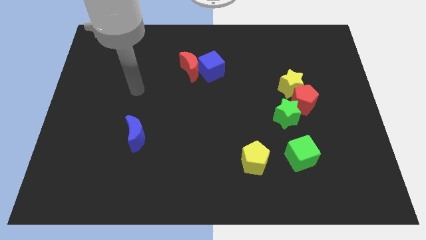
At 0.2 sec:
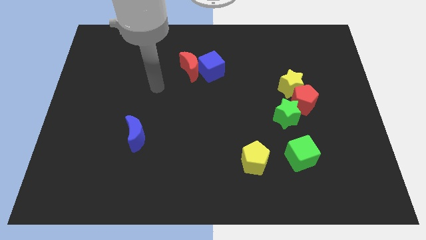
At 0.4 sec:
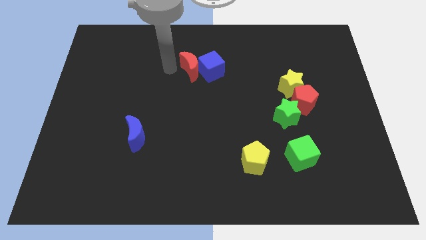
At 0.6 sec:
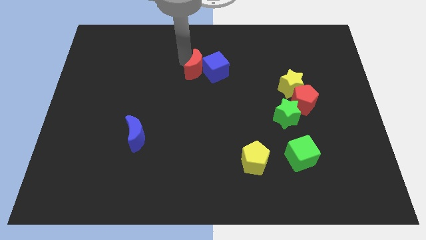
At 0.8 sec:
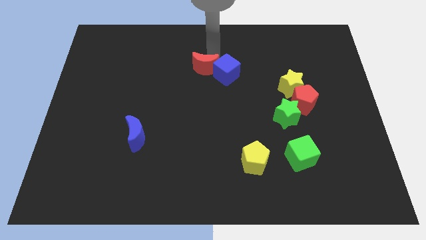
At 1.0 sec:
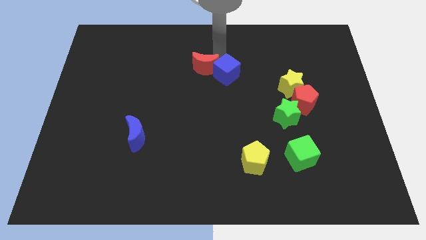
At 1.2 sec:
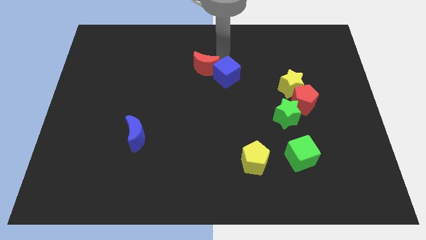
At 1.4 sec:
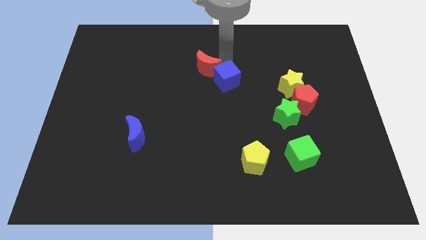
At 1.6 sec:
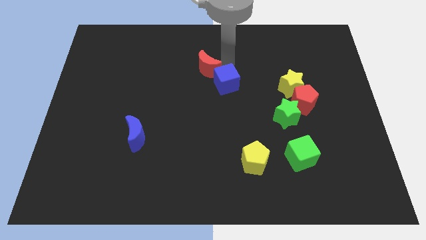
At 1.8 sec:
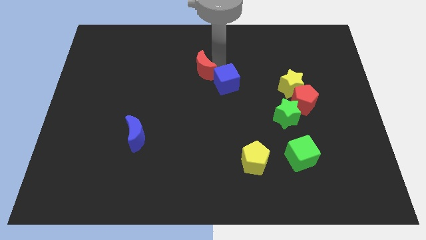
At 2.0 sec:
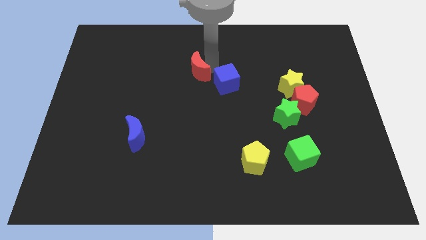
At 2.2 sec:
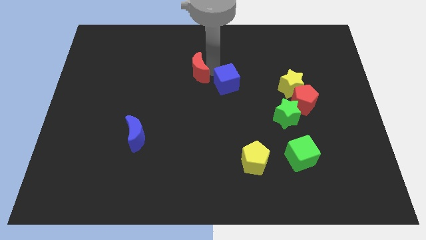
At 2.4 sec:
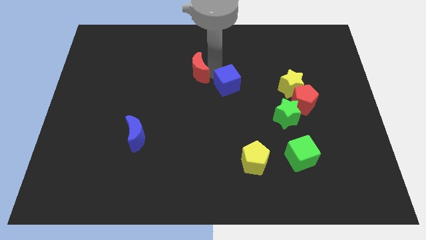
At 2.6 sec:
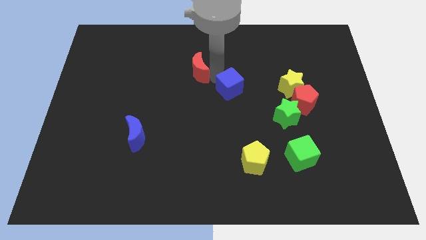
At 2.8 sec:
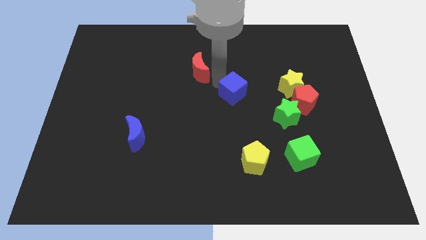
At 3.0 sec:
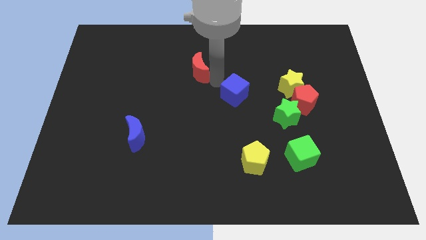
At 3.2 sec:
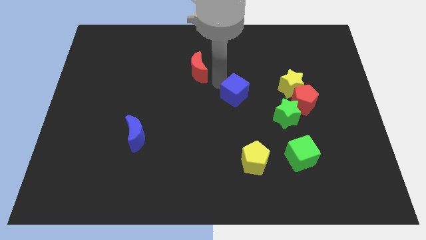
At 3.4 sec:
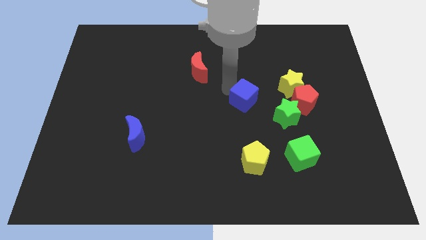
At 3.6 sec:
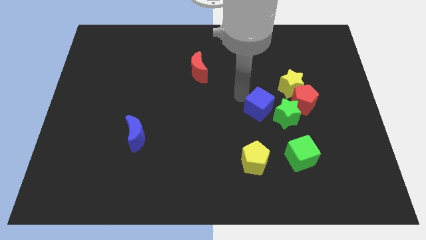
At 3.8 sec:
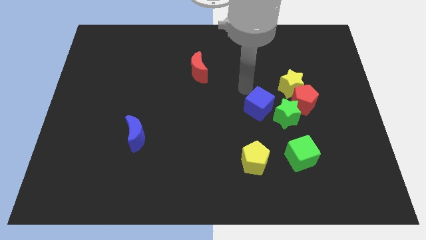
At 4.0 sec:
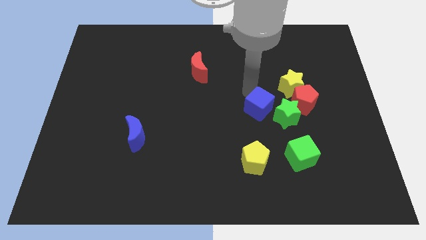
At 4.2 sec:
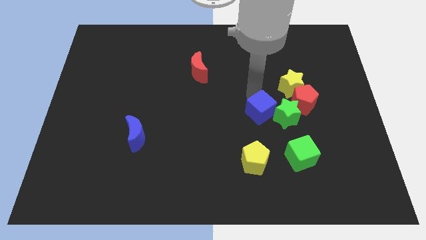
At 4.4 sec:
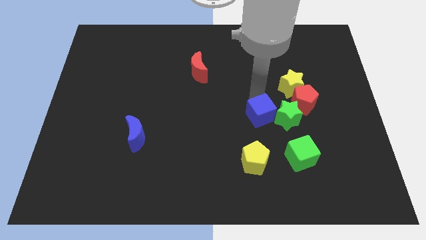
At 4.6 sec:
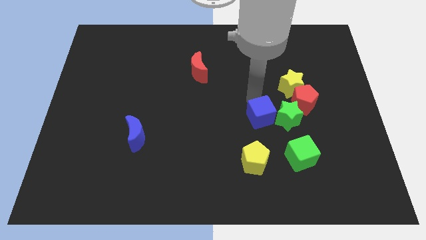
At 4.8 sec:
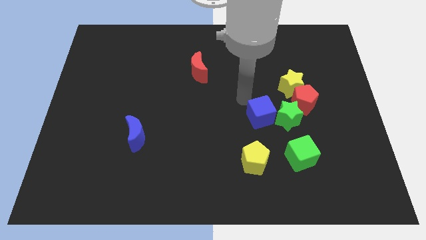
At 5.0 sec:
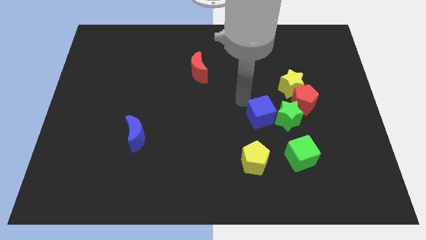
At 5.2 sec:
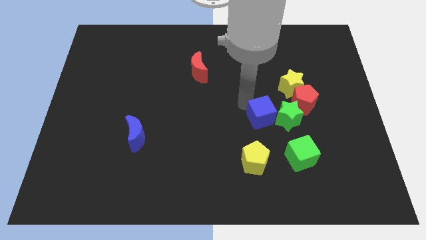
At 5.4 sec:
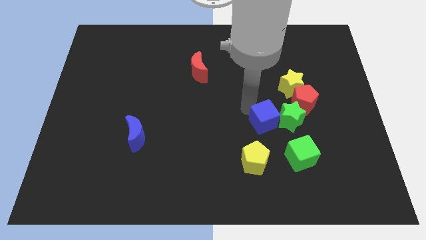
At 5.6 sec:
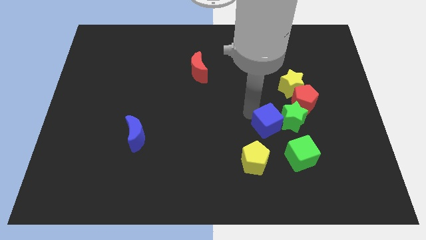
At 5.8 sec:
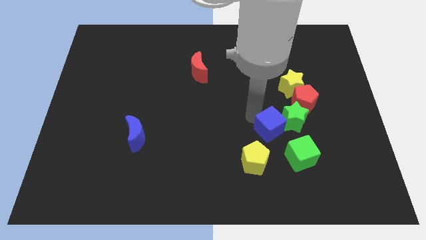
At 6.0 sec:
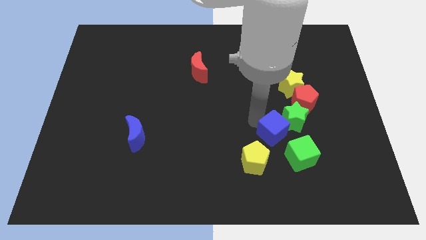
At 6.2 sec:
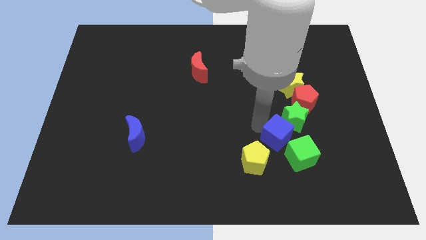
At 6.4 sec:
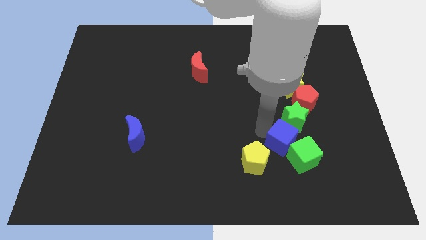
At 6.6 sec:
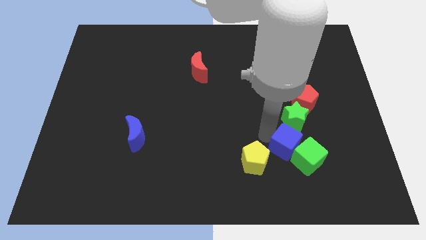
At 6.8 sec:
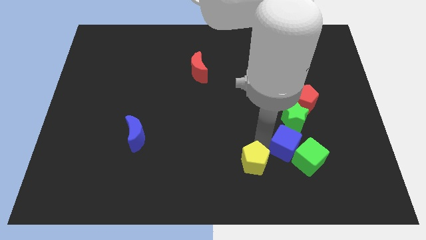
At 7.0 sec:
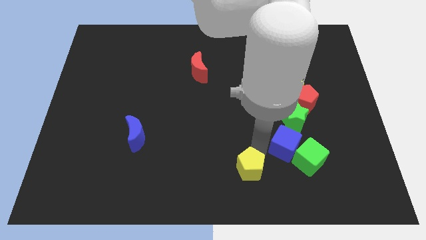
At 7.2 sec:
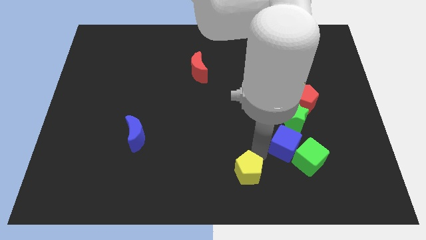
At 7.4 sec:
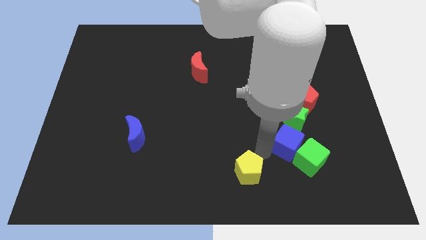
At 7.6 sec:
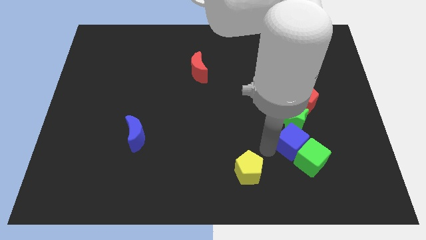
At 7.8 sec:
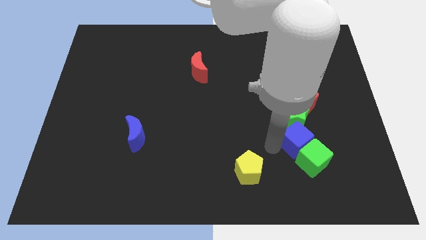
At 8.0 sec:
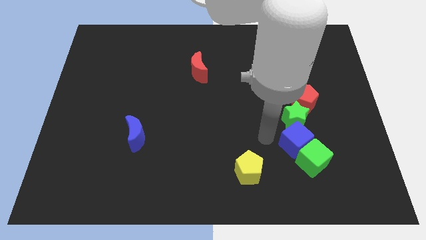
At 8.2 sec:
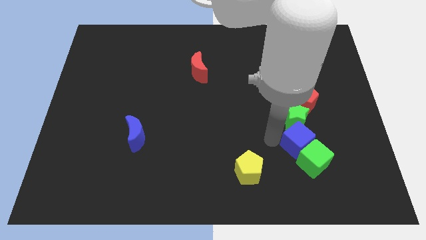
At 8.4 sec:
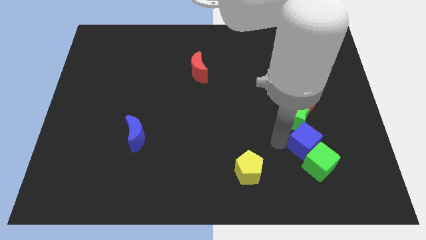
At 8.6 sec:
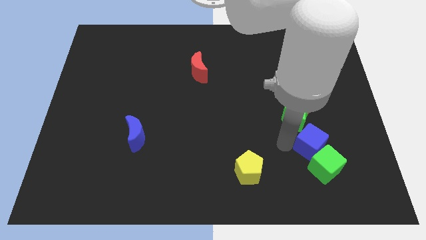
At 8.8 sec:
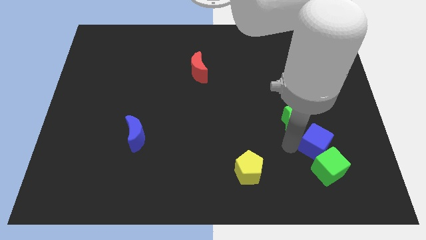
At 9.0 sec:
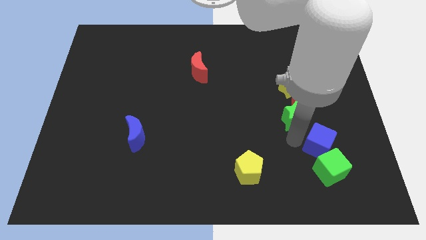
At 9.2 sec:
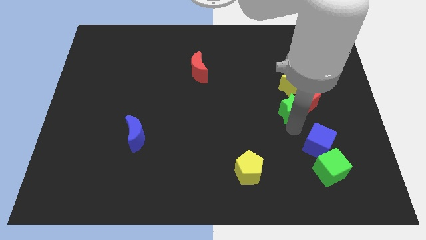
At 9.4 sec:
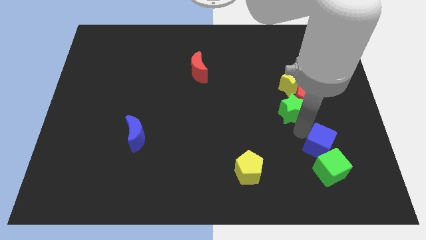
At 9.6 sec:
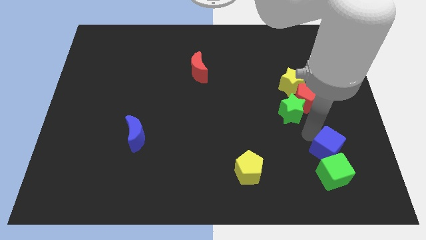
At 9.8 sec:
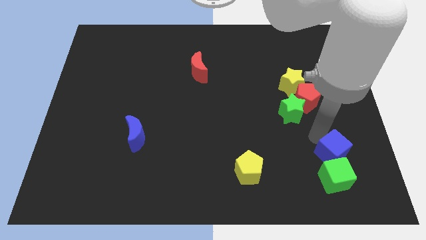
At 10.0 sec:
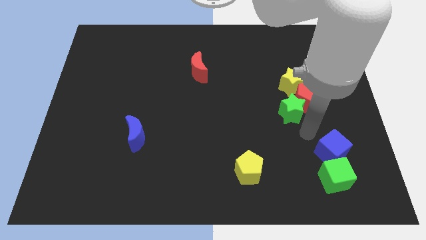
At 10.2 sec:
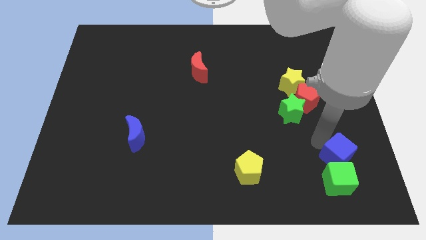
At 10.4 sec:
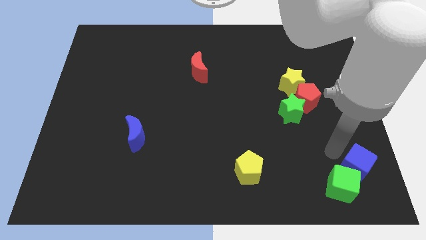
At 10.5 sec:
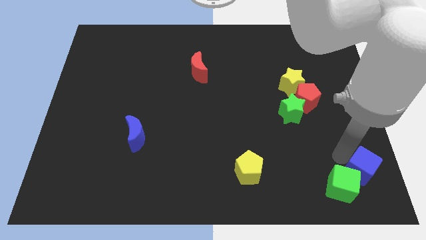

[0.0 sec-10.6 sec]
slide the blue cube to the bottom right

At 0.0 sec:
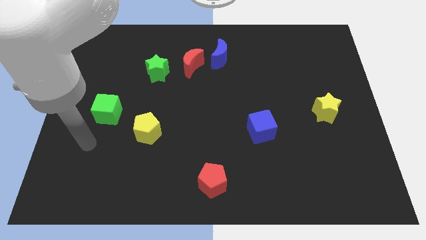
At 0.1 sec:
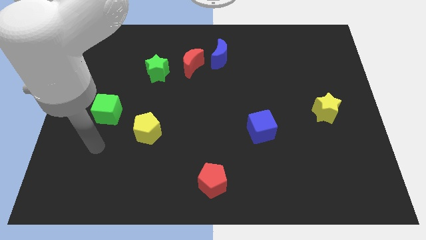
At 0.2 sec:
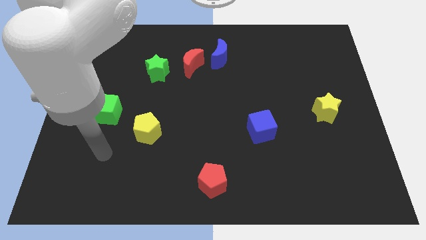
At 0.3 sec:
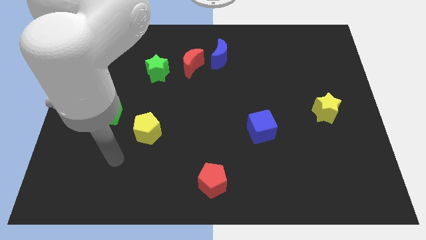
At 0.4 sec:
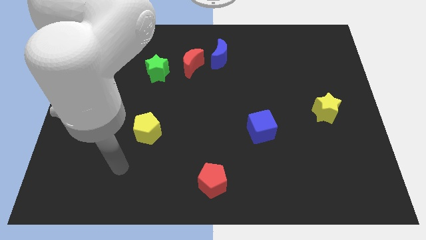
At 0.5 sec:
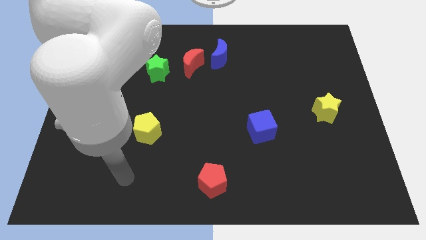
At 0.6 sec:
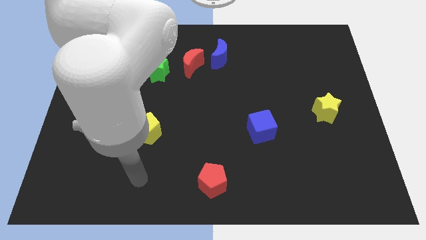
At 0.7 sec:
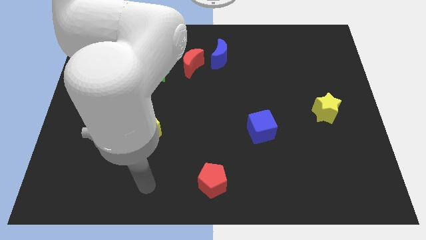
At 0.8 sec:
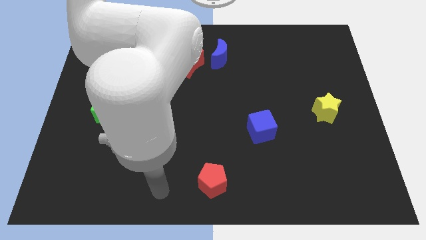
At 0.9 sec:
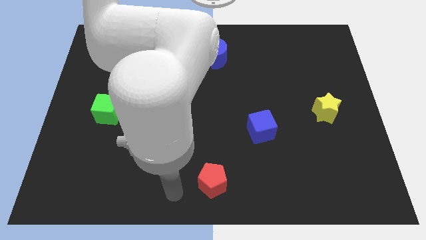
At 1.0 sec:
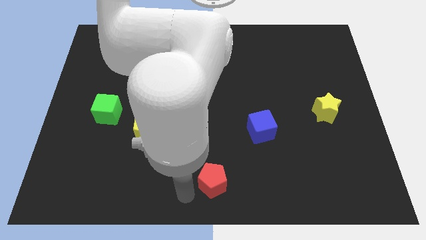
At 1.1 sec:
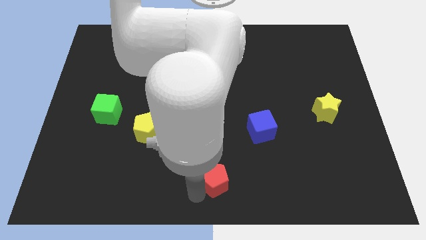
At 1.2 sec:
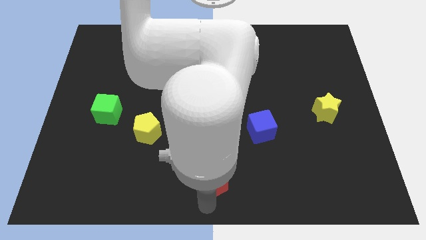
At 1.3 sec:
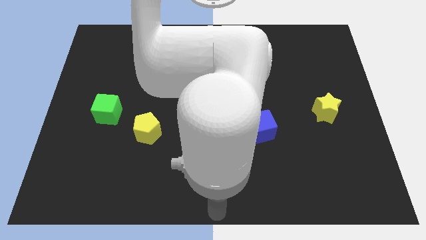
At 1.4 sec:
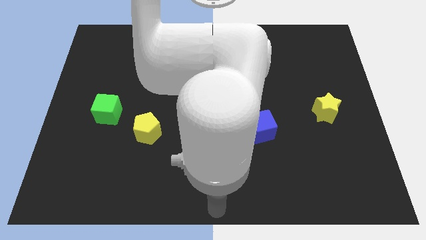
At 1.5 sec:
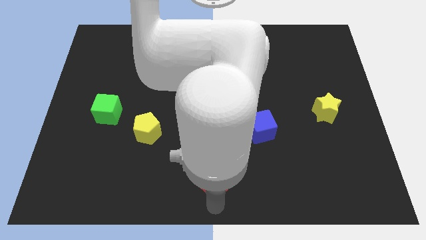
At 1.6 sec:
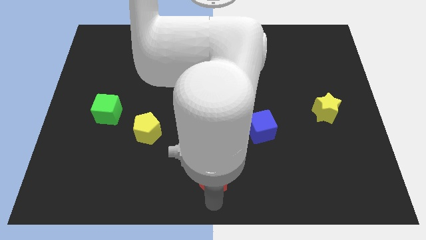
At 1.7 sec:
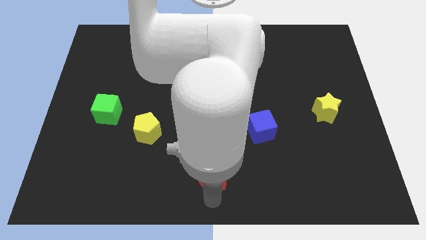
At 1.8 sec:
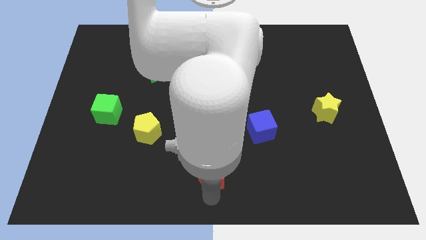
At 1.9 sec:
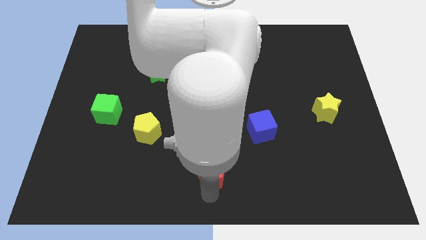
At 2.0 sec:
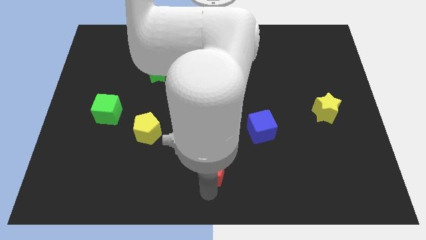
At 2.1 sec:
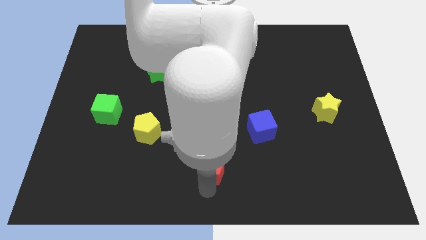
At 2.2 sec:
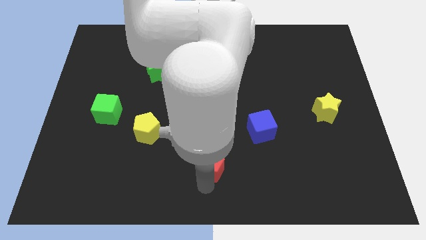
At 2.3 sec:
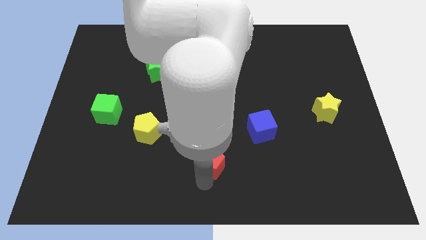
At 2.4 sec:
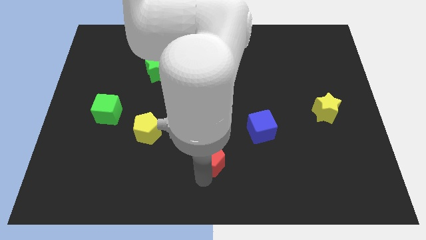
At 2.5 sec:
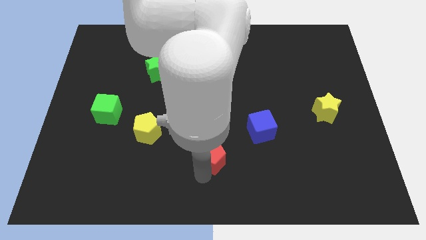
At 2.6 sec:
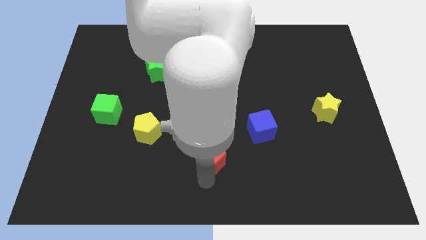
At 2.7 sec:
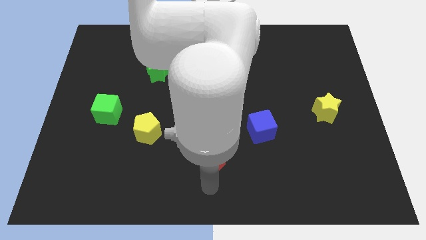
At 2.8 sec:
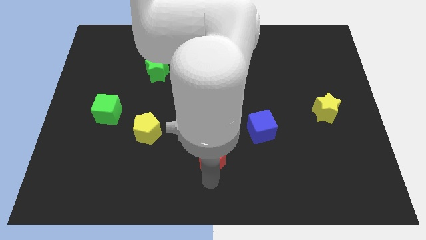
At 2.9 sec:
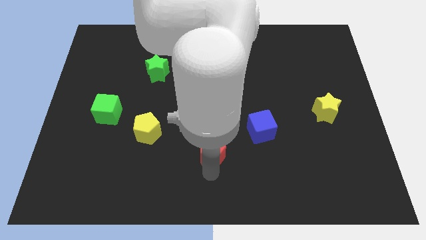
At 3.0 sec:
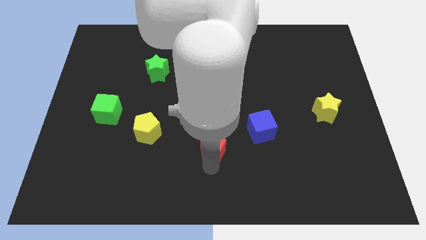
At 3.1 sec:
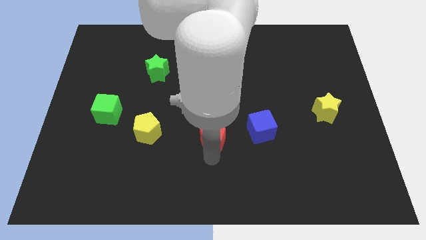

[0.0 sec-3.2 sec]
push the red pentagon to the center
